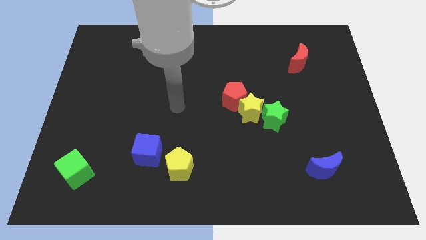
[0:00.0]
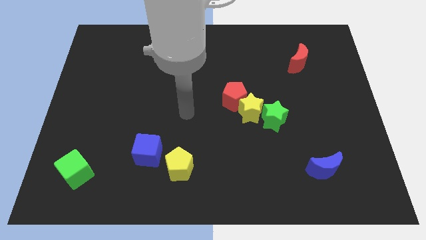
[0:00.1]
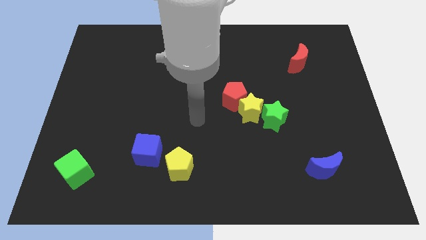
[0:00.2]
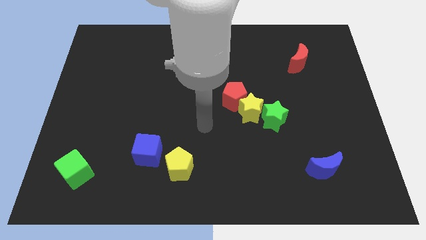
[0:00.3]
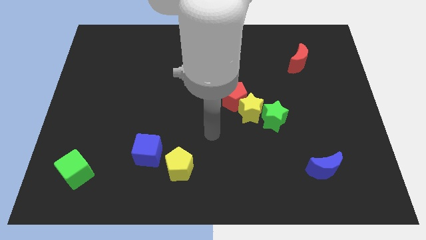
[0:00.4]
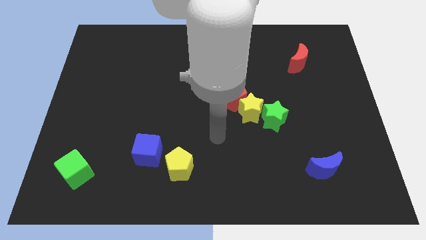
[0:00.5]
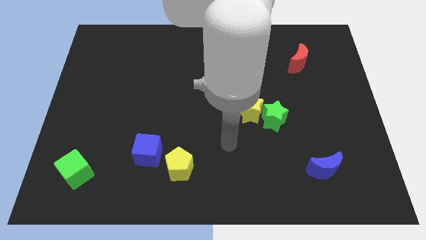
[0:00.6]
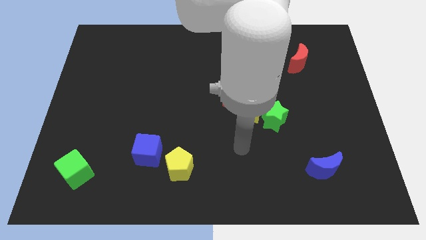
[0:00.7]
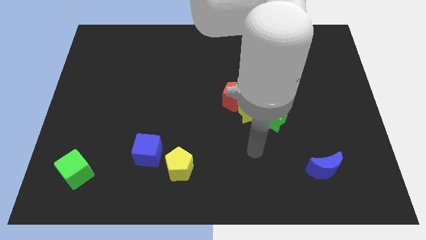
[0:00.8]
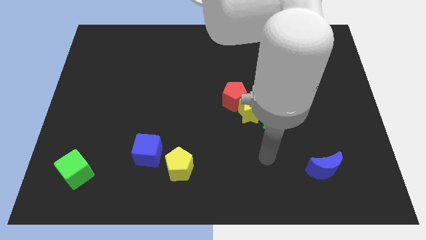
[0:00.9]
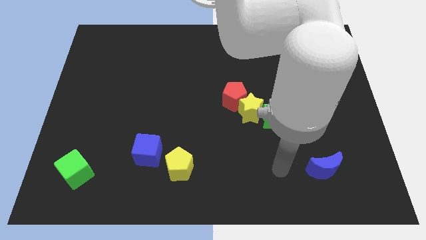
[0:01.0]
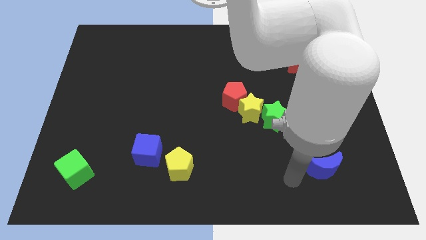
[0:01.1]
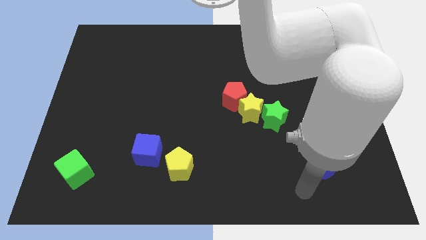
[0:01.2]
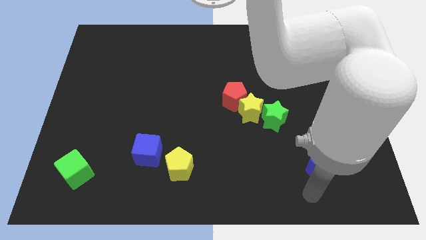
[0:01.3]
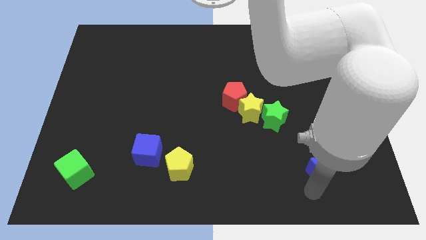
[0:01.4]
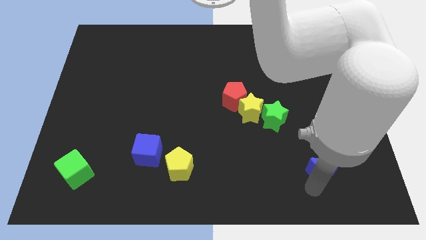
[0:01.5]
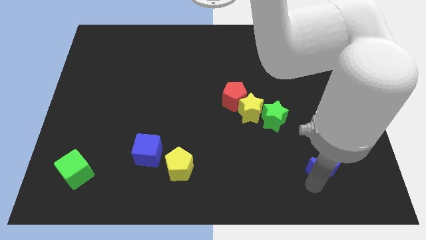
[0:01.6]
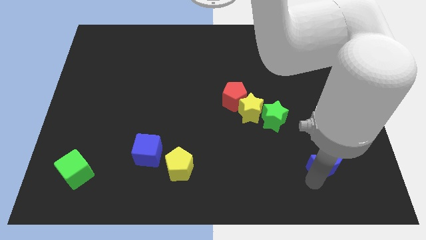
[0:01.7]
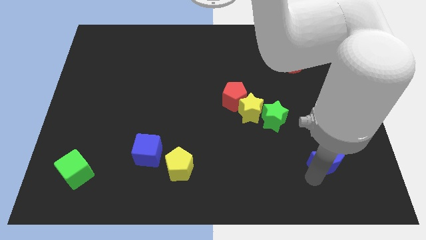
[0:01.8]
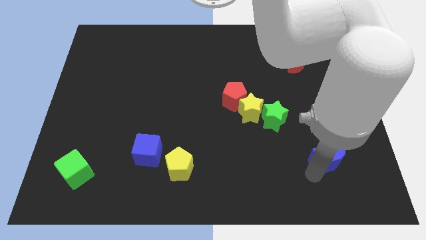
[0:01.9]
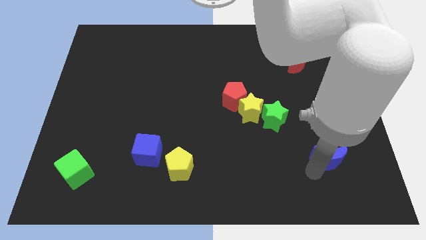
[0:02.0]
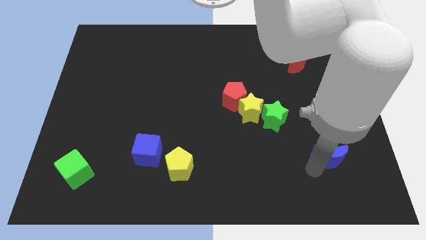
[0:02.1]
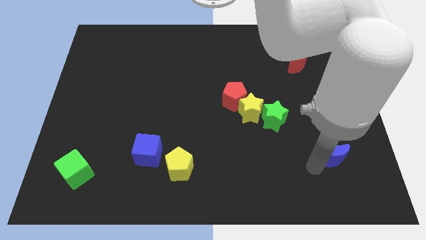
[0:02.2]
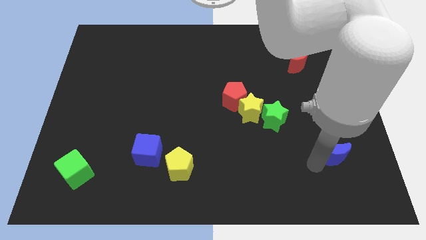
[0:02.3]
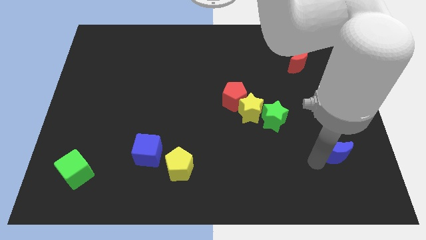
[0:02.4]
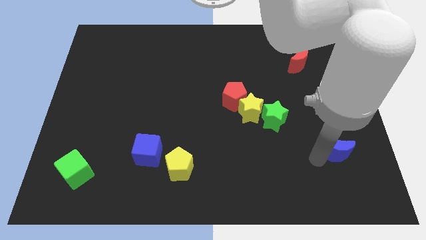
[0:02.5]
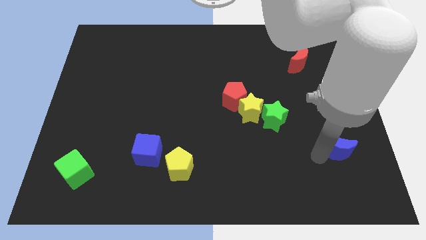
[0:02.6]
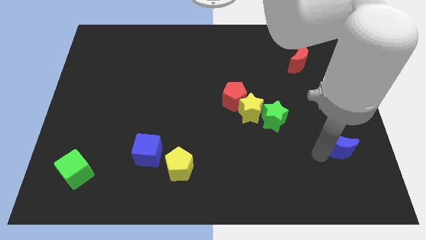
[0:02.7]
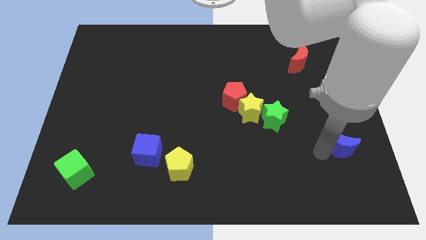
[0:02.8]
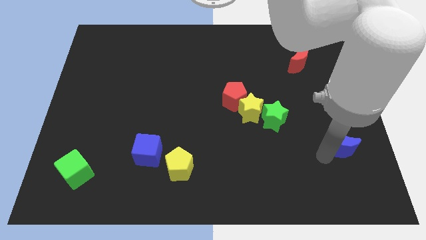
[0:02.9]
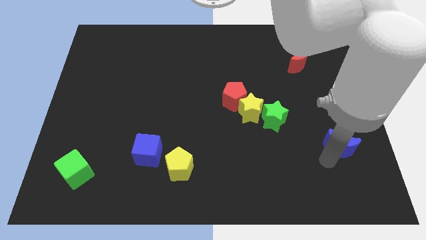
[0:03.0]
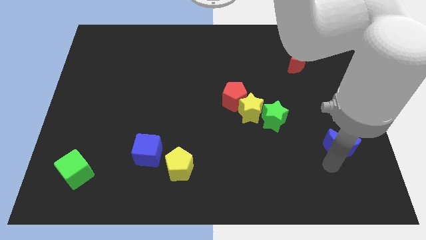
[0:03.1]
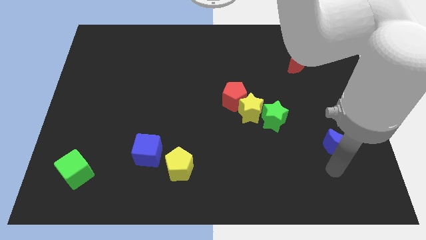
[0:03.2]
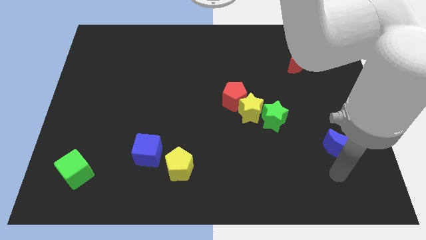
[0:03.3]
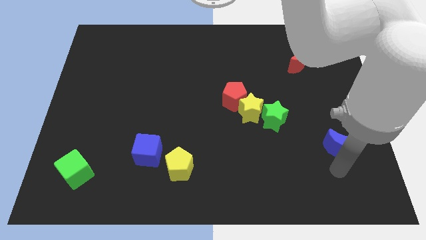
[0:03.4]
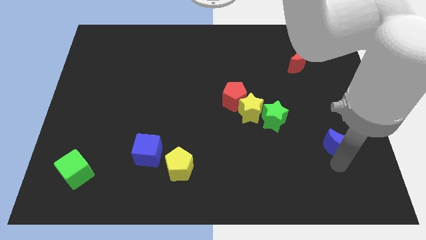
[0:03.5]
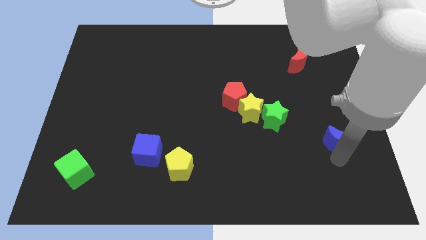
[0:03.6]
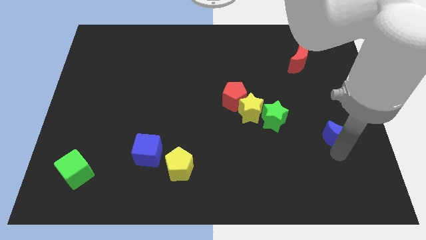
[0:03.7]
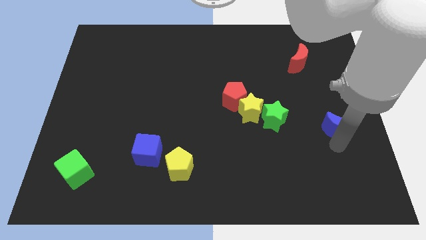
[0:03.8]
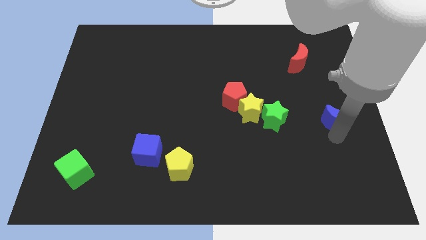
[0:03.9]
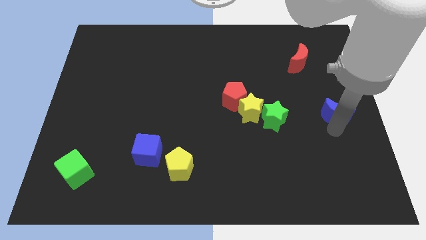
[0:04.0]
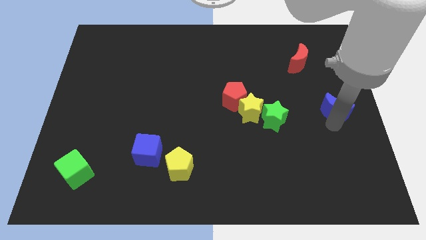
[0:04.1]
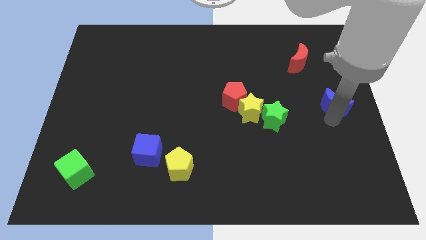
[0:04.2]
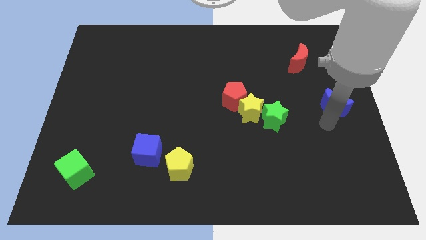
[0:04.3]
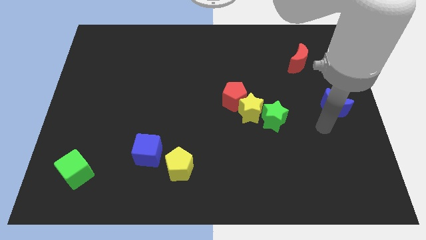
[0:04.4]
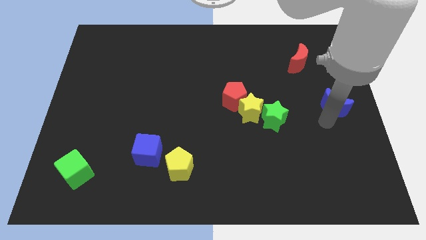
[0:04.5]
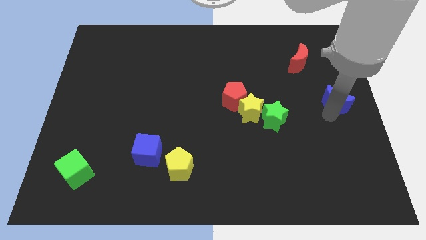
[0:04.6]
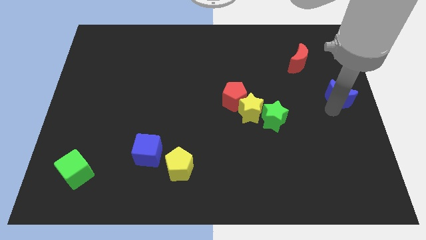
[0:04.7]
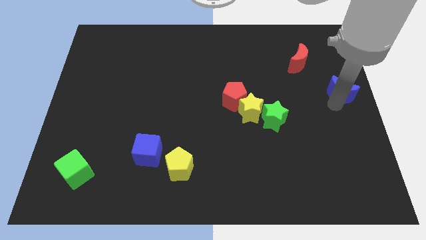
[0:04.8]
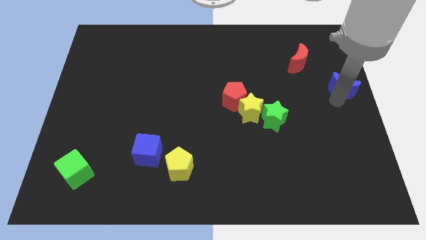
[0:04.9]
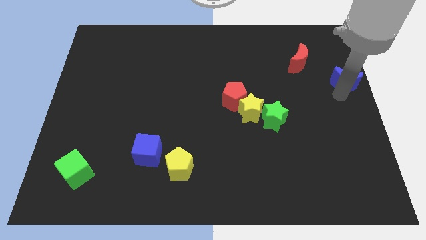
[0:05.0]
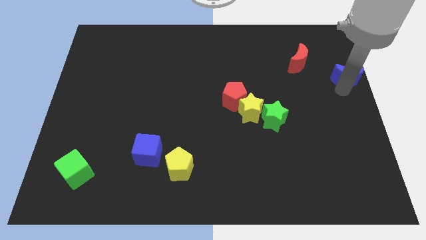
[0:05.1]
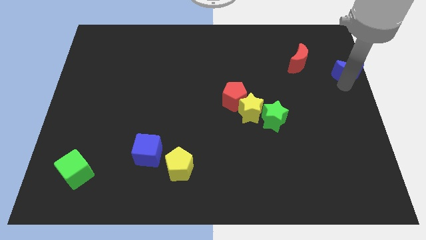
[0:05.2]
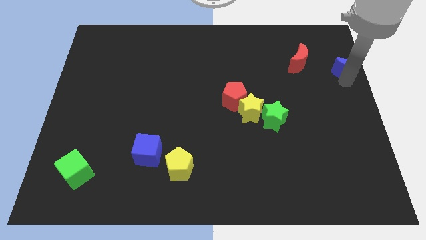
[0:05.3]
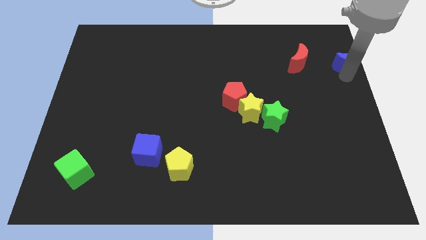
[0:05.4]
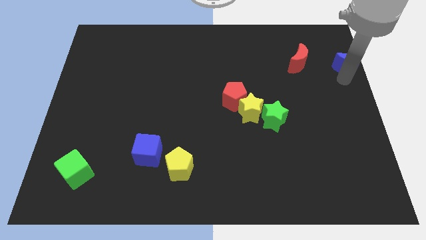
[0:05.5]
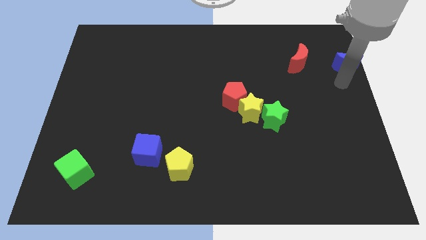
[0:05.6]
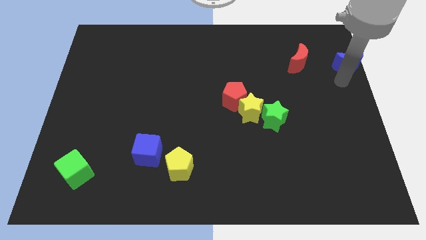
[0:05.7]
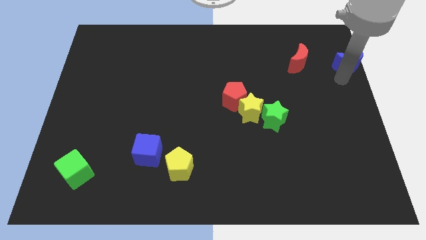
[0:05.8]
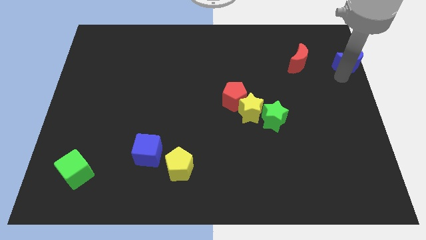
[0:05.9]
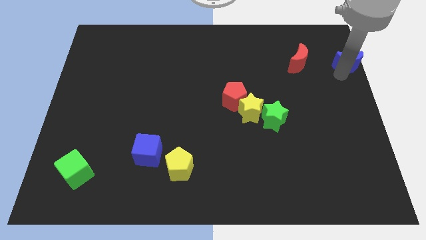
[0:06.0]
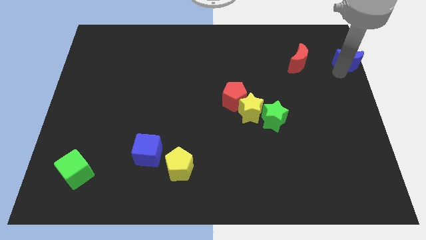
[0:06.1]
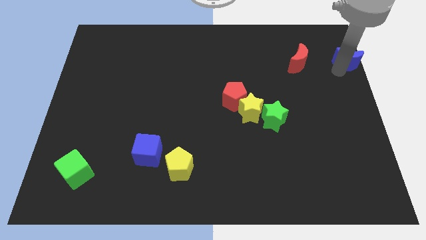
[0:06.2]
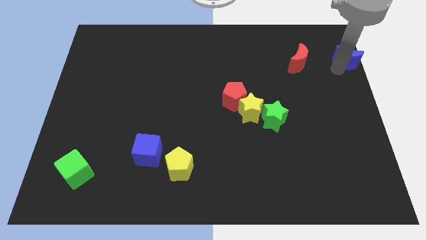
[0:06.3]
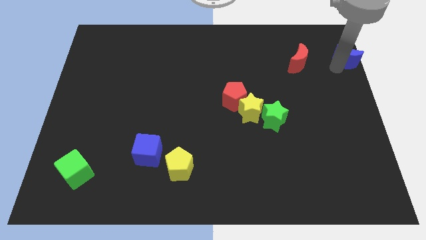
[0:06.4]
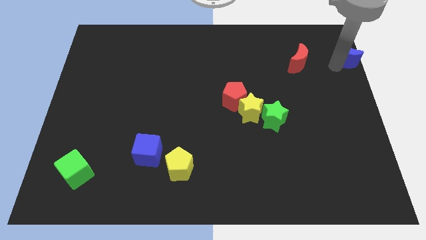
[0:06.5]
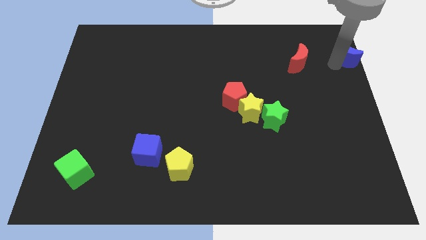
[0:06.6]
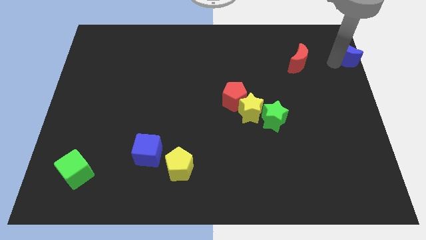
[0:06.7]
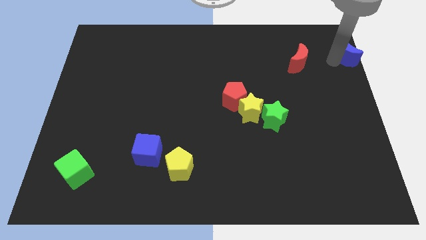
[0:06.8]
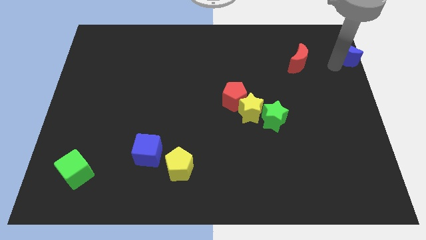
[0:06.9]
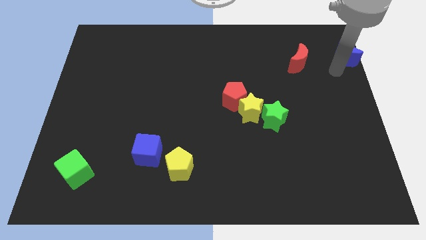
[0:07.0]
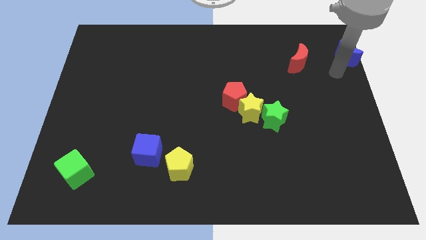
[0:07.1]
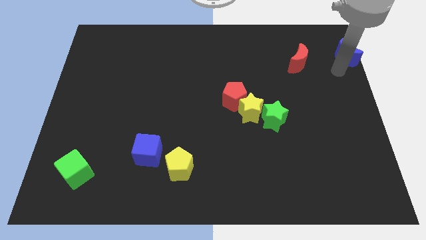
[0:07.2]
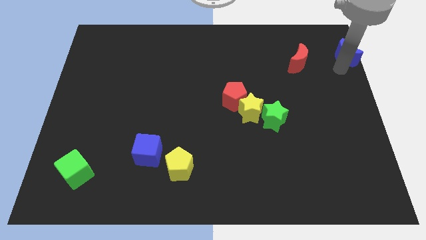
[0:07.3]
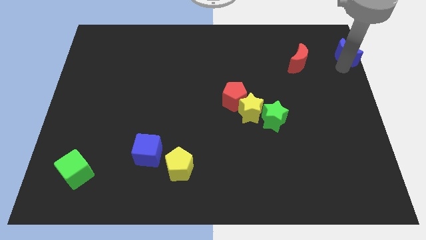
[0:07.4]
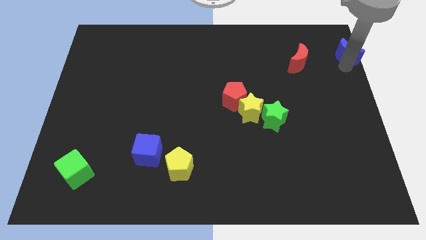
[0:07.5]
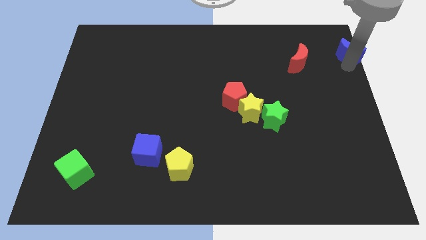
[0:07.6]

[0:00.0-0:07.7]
slide the blue moon to the top right corner

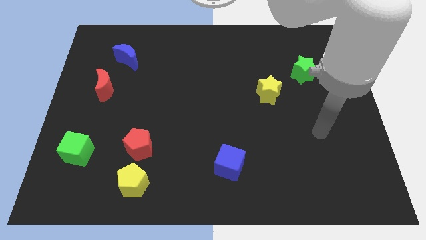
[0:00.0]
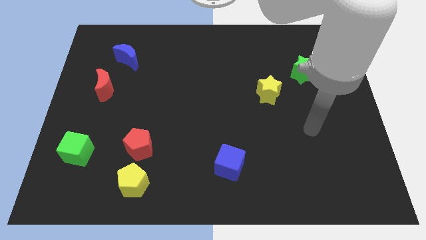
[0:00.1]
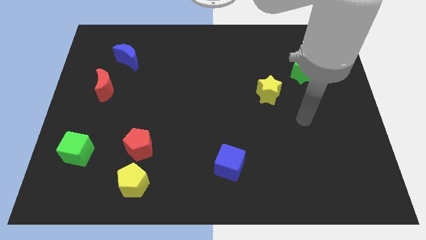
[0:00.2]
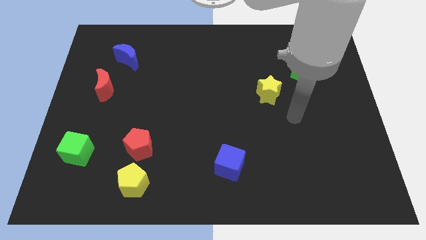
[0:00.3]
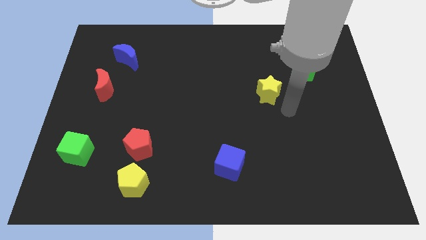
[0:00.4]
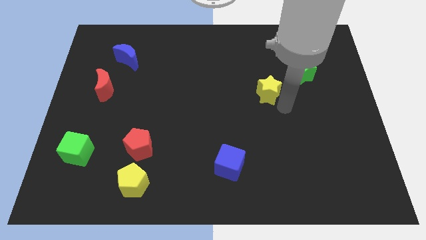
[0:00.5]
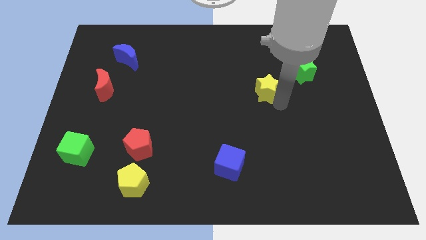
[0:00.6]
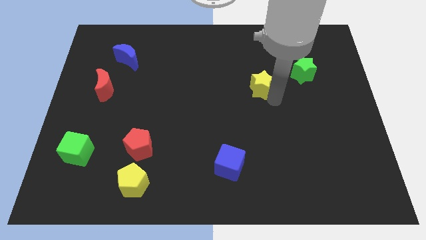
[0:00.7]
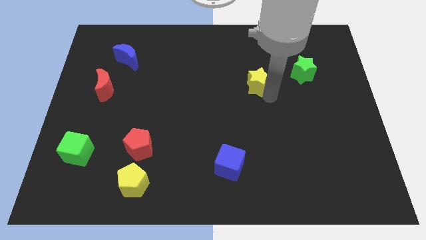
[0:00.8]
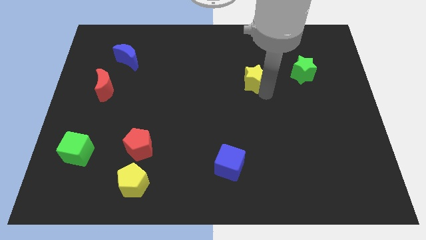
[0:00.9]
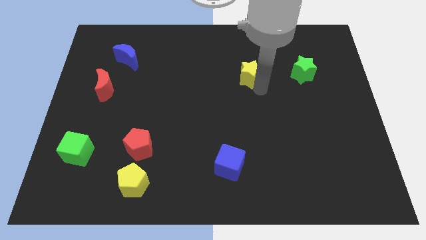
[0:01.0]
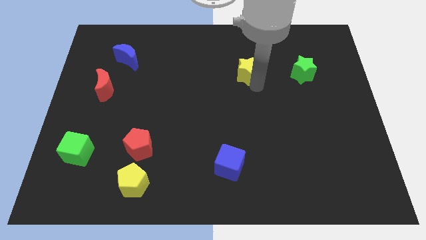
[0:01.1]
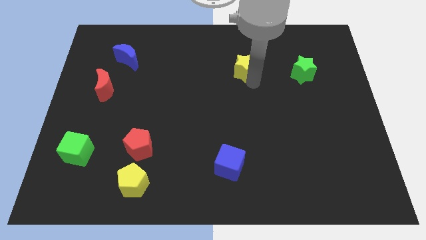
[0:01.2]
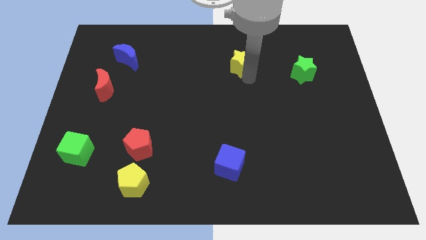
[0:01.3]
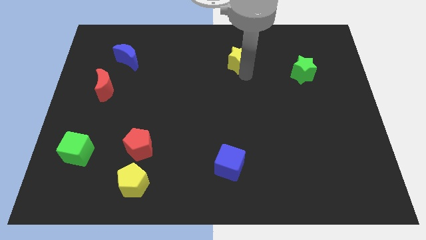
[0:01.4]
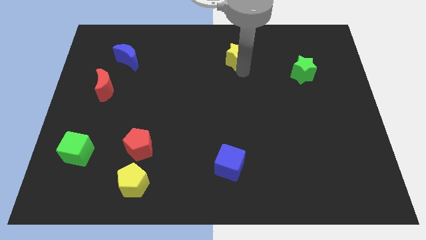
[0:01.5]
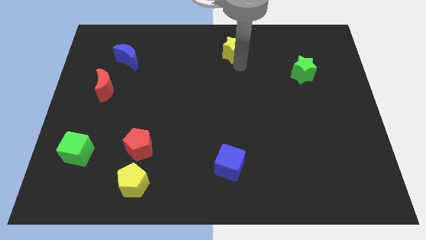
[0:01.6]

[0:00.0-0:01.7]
push the yellow star to the top side
